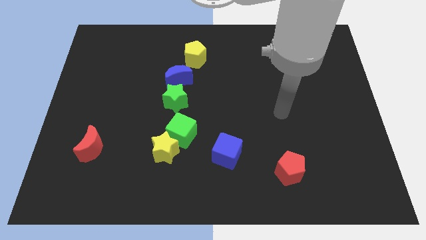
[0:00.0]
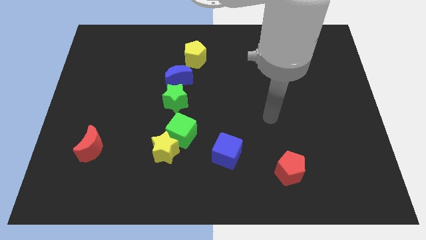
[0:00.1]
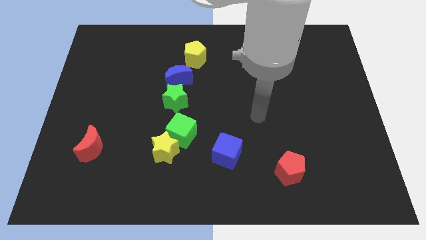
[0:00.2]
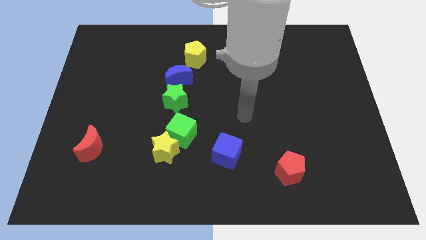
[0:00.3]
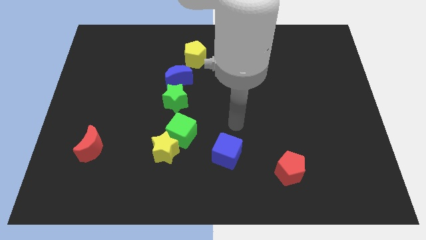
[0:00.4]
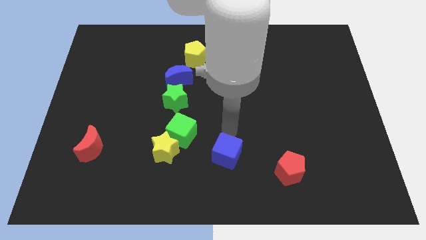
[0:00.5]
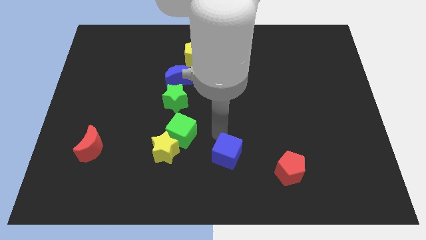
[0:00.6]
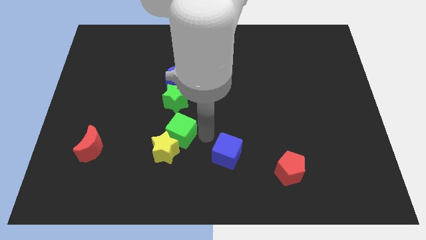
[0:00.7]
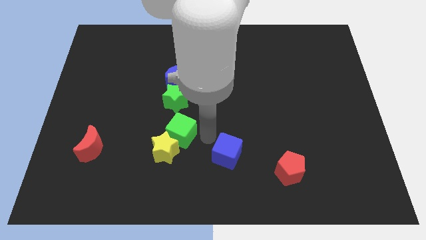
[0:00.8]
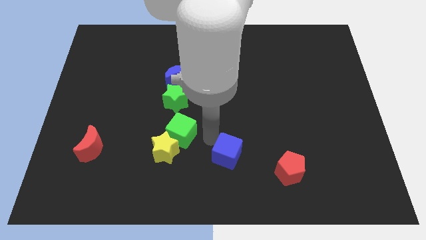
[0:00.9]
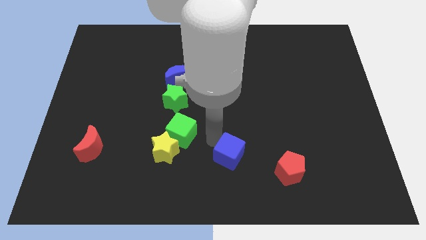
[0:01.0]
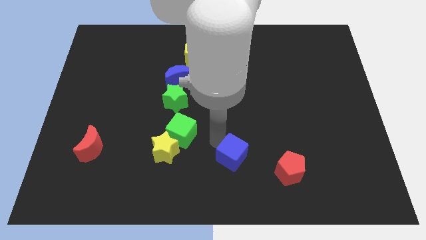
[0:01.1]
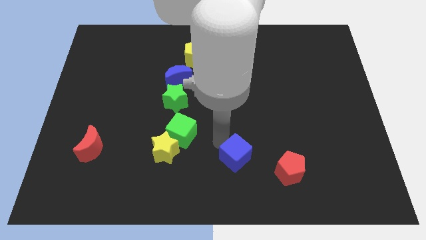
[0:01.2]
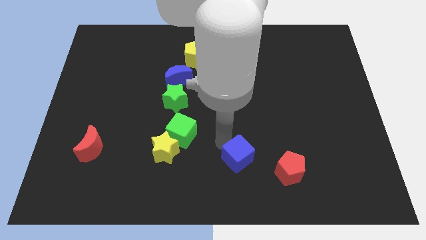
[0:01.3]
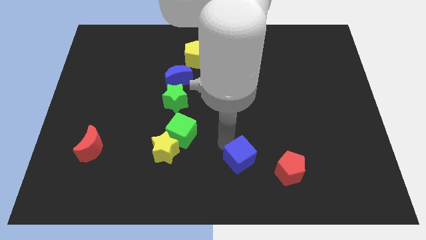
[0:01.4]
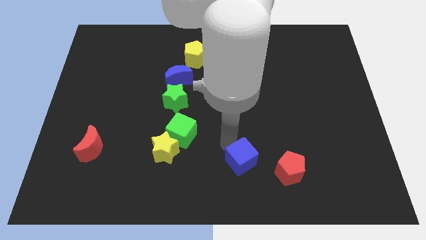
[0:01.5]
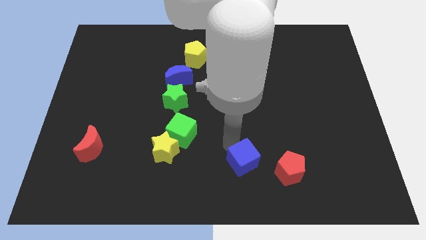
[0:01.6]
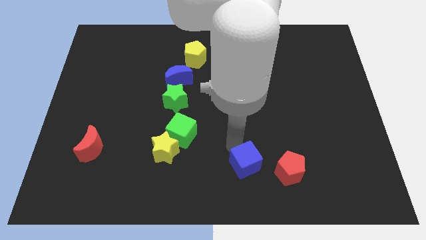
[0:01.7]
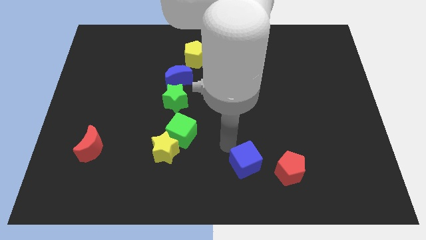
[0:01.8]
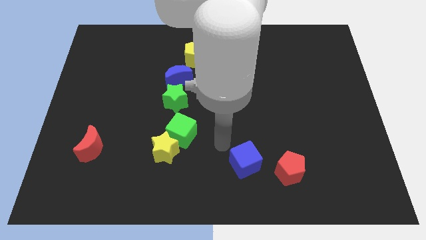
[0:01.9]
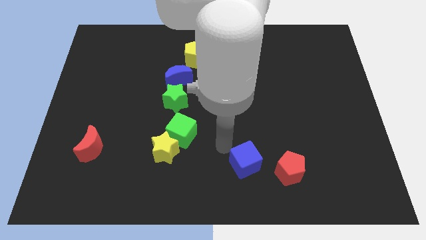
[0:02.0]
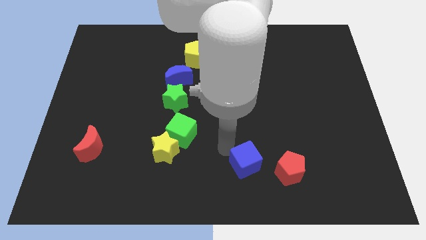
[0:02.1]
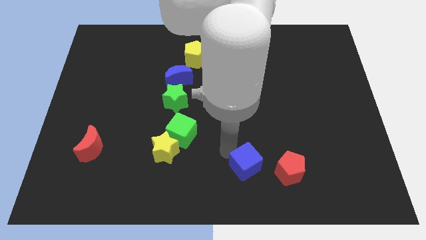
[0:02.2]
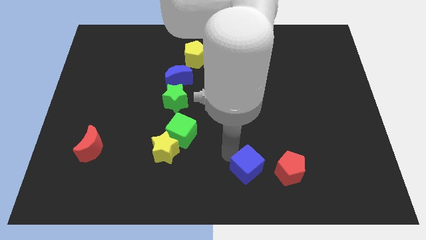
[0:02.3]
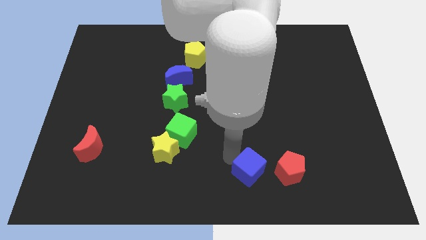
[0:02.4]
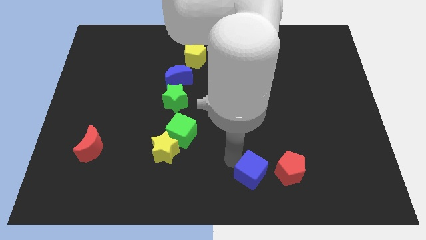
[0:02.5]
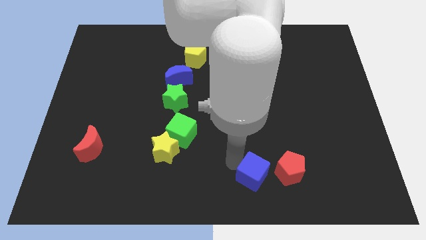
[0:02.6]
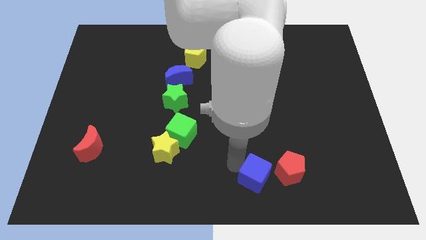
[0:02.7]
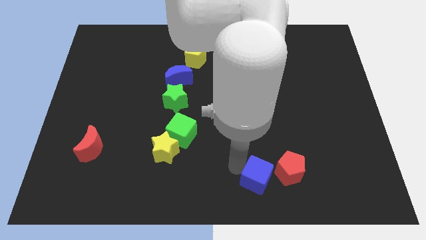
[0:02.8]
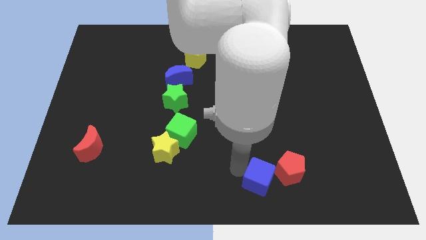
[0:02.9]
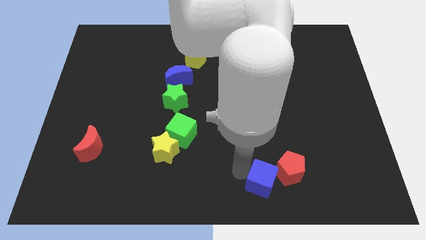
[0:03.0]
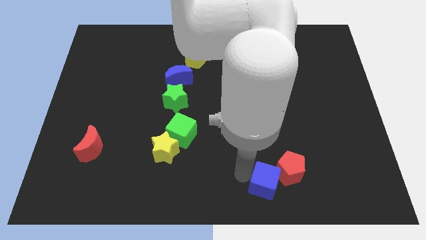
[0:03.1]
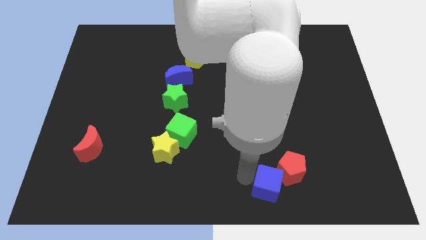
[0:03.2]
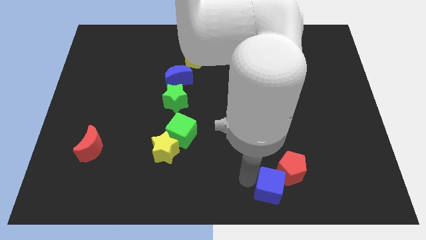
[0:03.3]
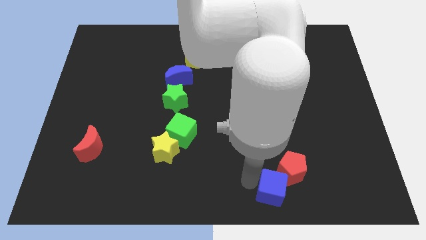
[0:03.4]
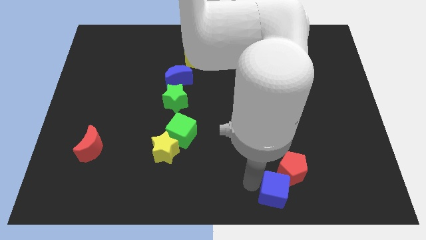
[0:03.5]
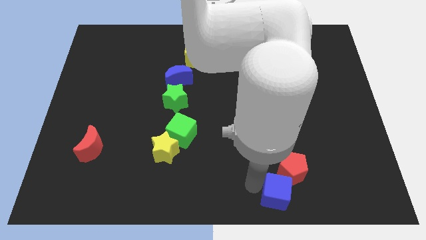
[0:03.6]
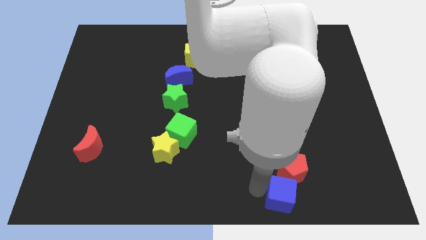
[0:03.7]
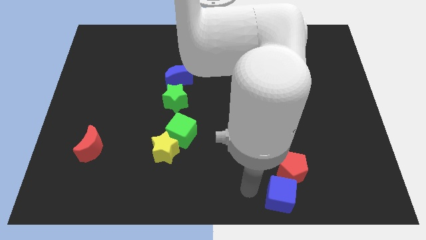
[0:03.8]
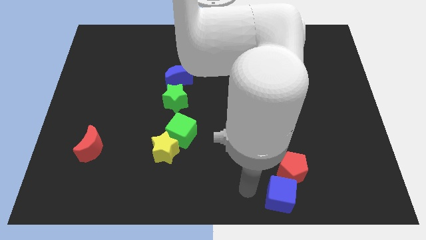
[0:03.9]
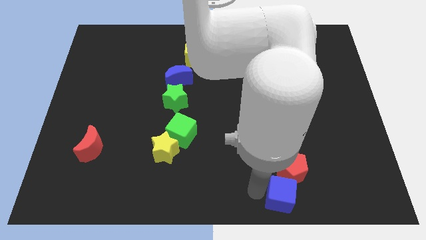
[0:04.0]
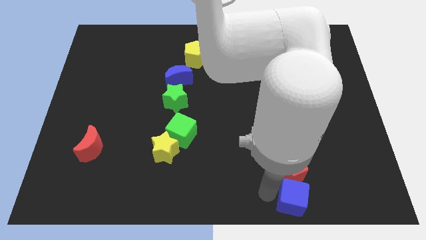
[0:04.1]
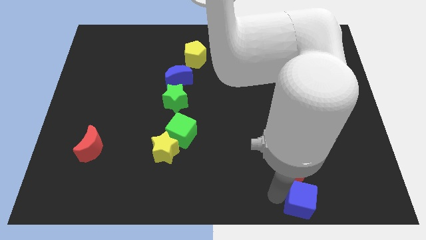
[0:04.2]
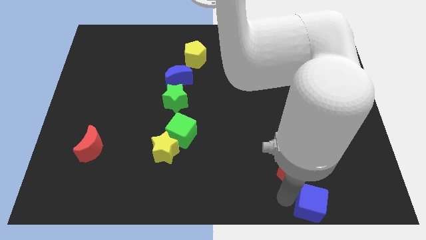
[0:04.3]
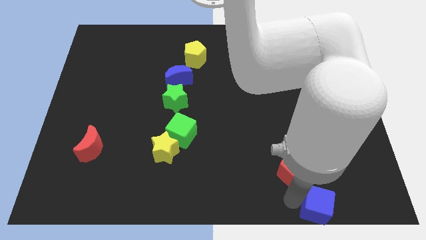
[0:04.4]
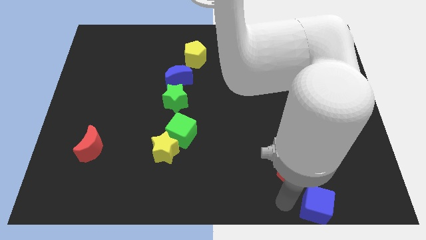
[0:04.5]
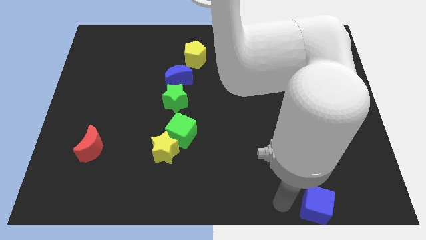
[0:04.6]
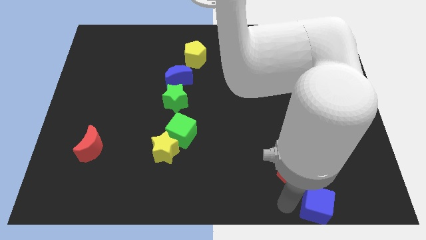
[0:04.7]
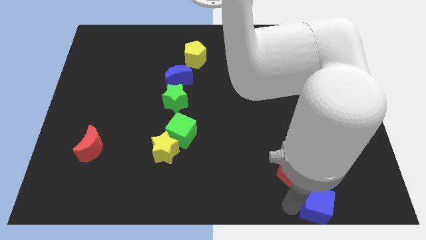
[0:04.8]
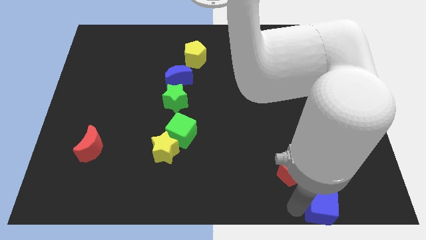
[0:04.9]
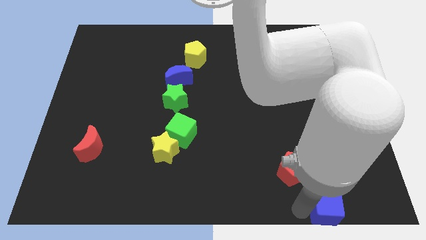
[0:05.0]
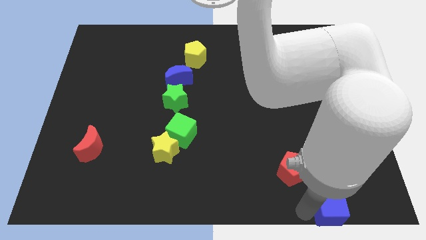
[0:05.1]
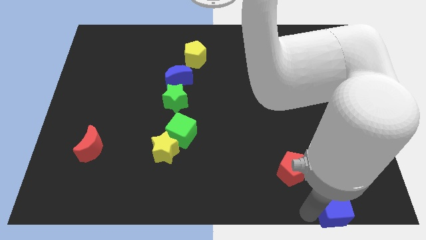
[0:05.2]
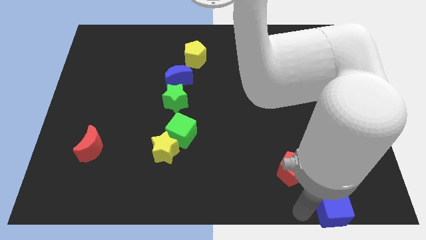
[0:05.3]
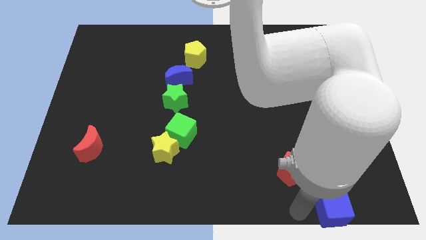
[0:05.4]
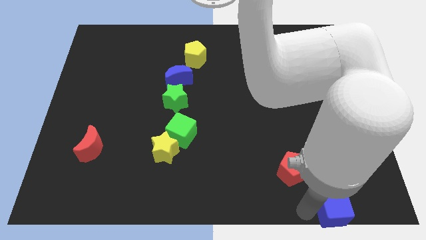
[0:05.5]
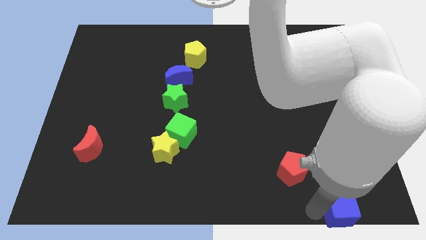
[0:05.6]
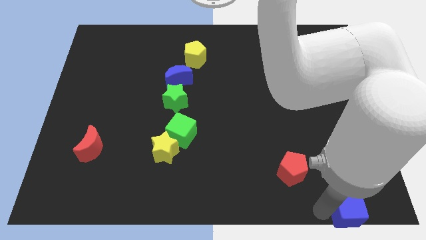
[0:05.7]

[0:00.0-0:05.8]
put the blue cube to the lower right corner

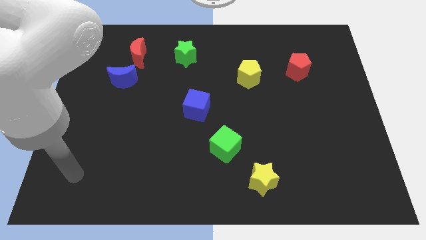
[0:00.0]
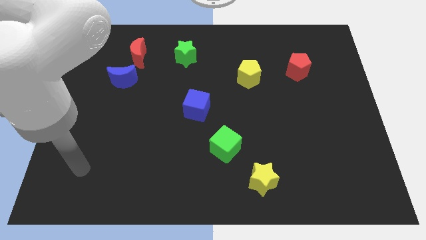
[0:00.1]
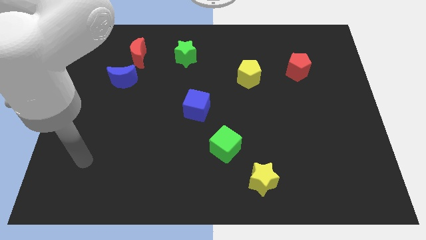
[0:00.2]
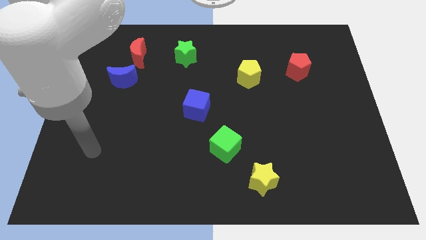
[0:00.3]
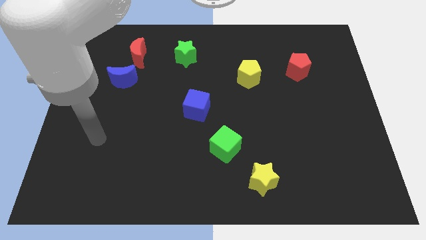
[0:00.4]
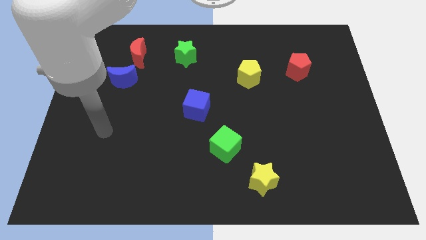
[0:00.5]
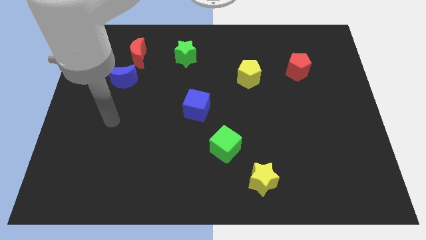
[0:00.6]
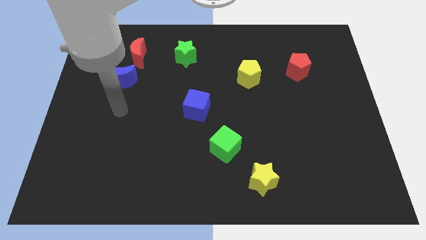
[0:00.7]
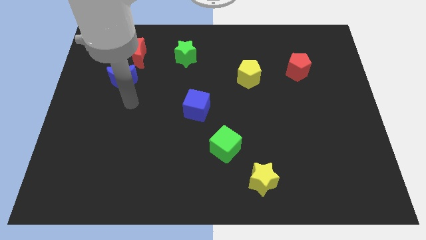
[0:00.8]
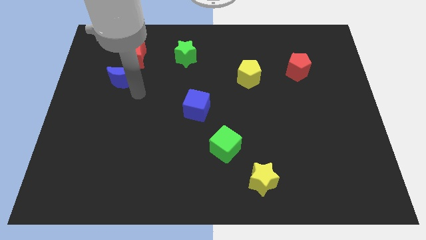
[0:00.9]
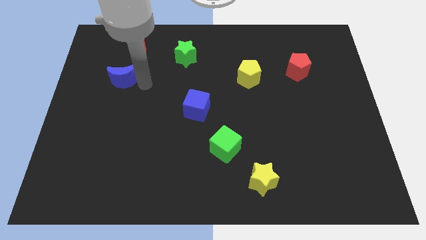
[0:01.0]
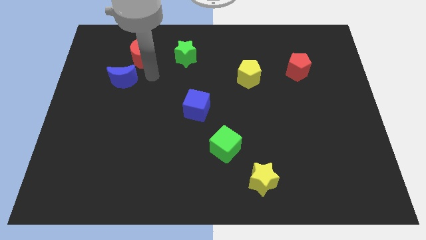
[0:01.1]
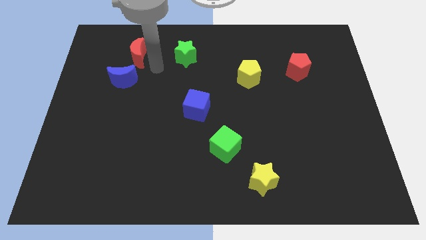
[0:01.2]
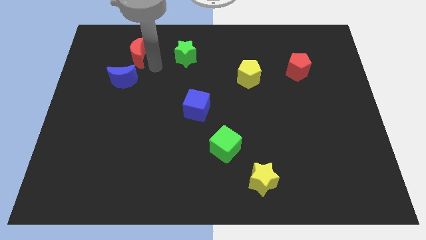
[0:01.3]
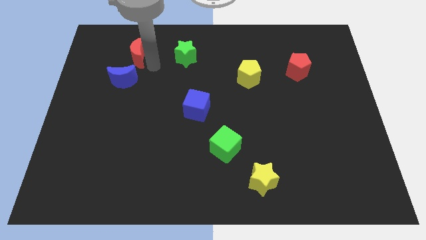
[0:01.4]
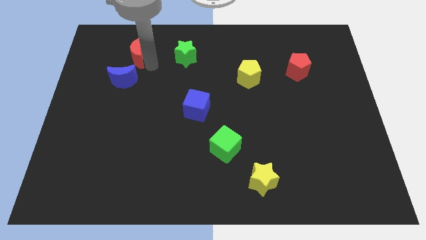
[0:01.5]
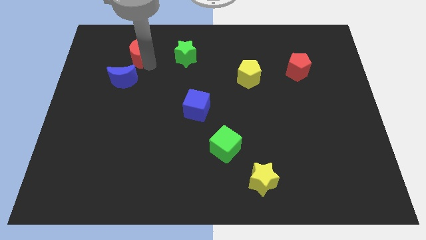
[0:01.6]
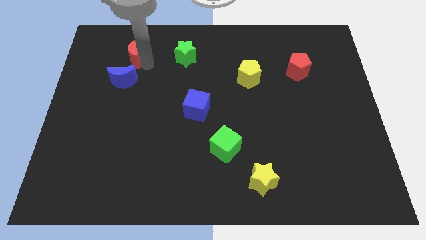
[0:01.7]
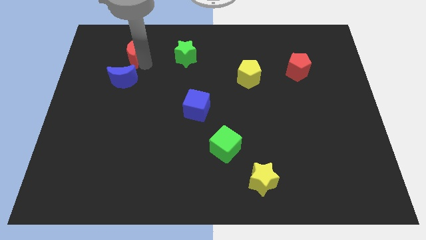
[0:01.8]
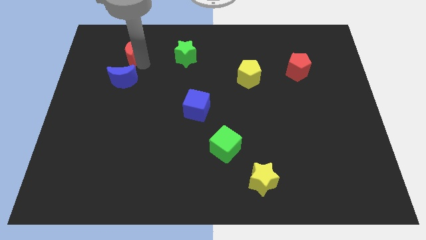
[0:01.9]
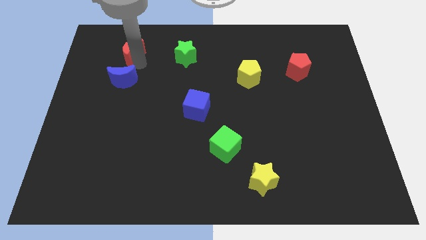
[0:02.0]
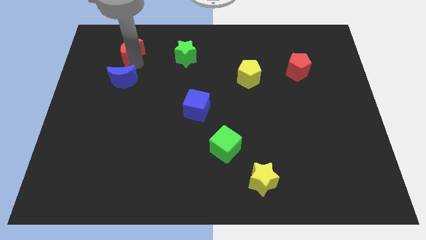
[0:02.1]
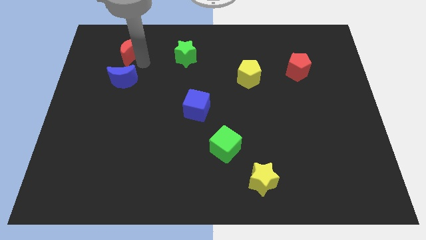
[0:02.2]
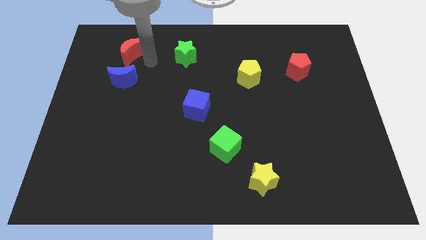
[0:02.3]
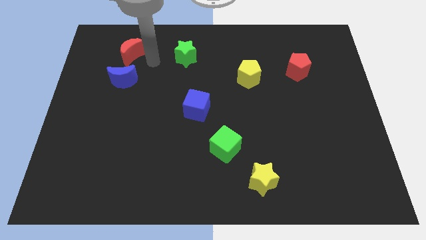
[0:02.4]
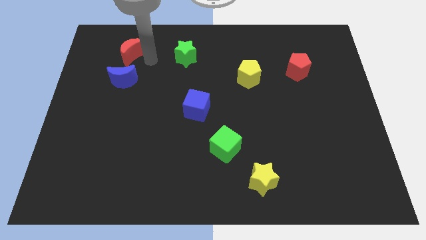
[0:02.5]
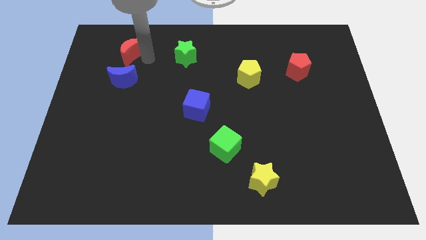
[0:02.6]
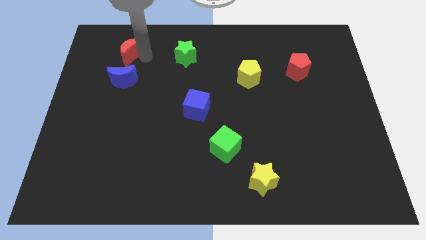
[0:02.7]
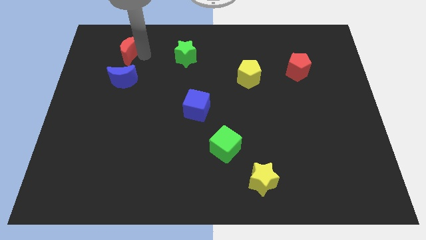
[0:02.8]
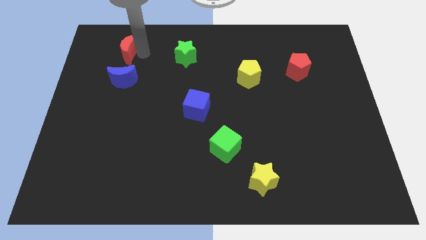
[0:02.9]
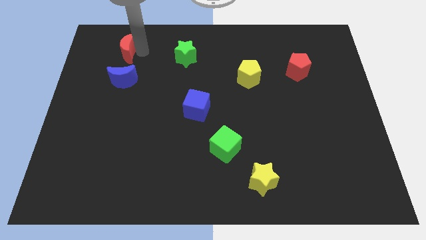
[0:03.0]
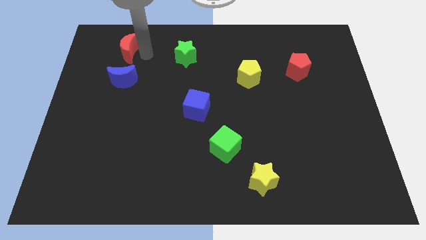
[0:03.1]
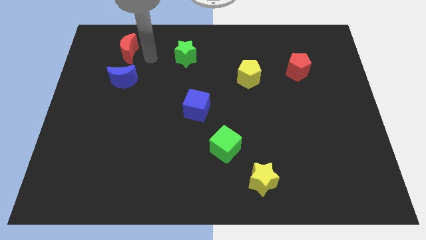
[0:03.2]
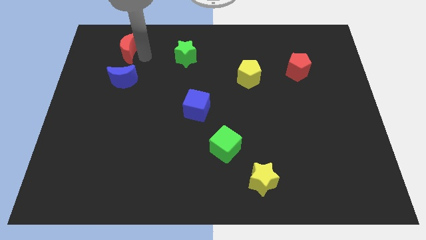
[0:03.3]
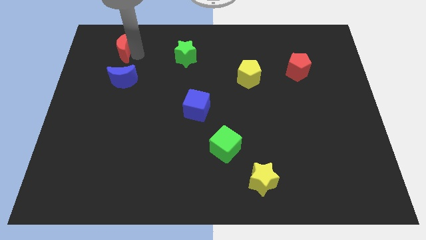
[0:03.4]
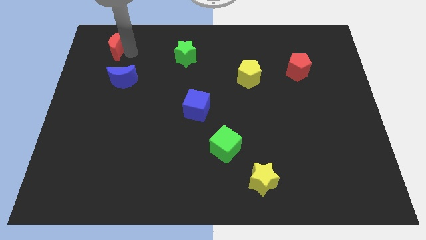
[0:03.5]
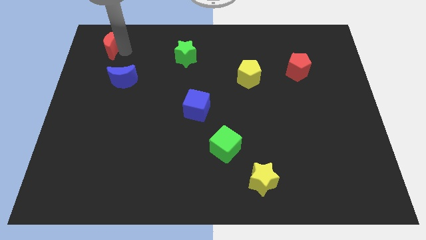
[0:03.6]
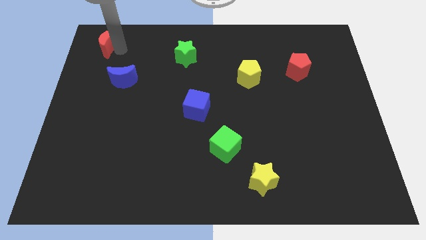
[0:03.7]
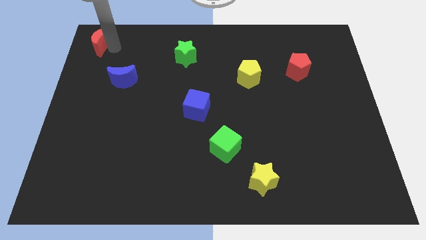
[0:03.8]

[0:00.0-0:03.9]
put the red moon to the top left of the board
